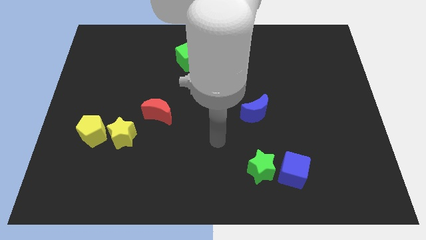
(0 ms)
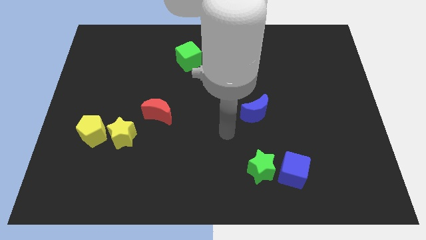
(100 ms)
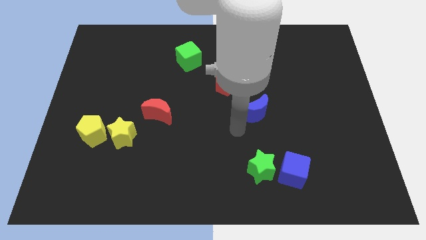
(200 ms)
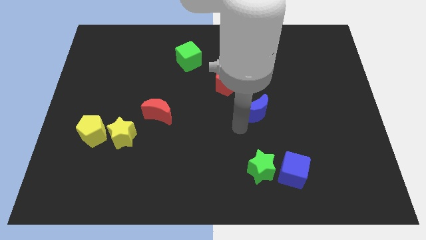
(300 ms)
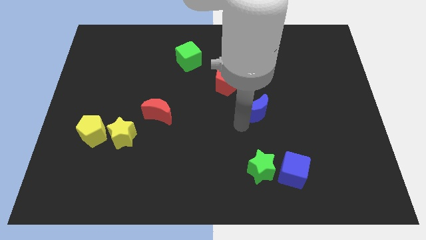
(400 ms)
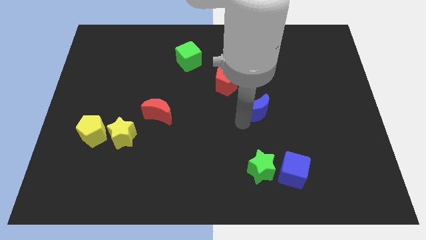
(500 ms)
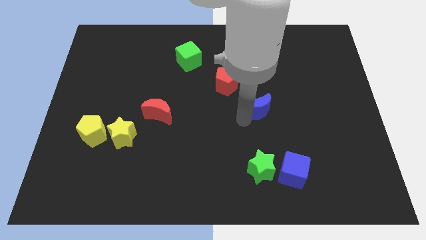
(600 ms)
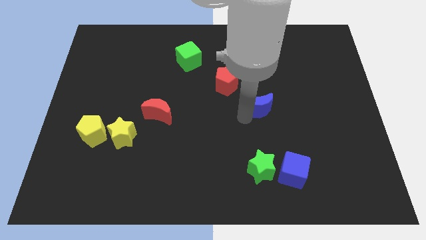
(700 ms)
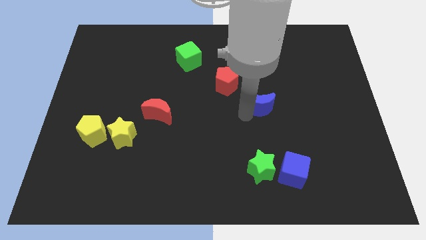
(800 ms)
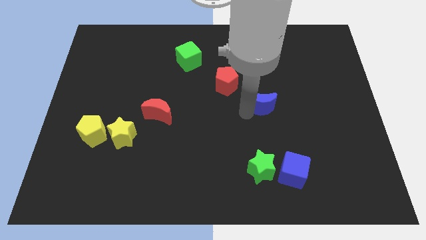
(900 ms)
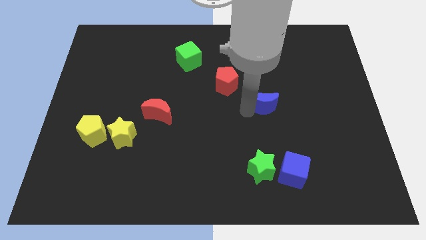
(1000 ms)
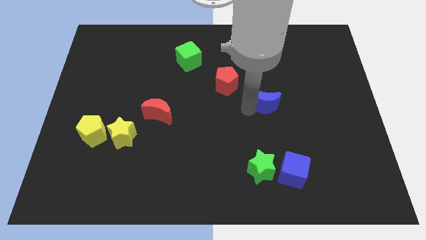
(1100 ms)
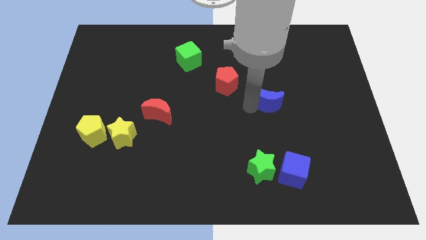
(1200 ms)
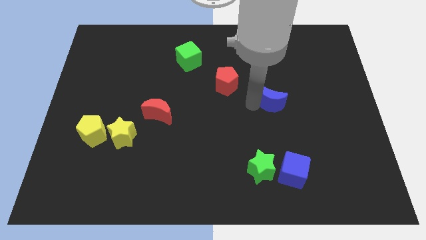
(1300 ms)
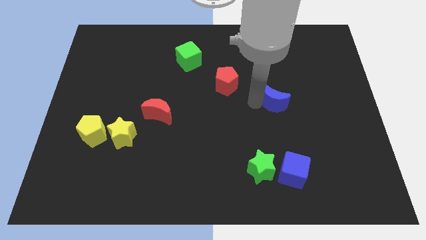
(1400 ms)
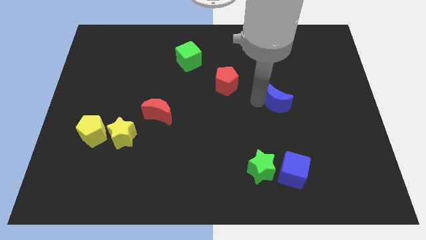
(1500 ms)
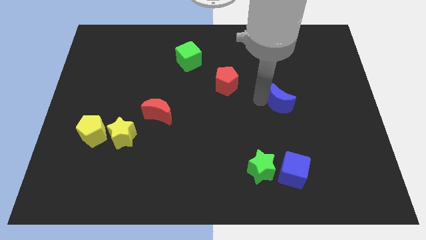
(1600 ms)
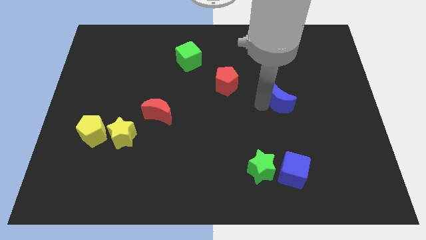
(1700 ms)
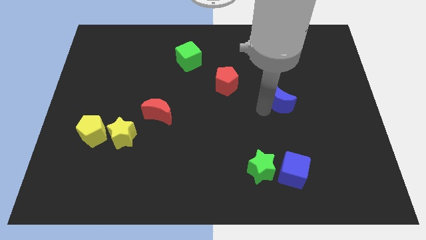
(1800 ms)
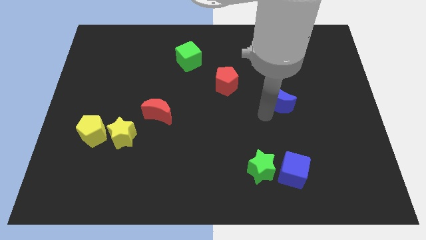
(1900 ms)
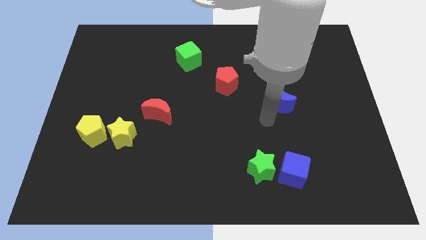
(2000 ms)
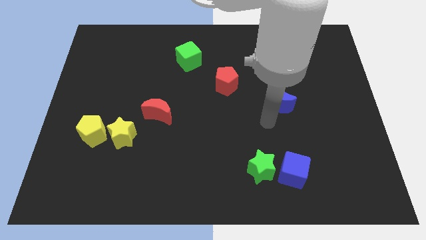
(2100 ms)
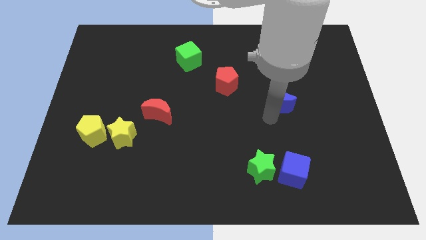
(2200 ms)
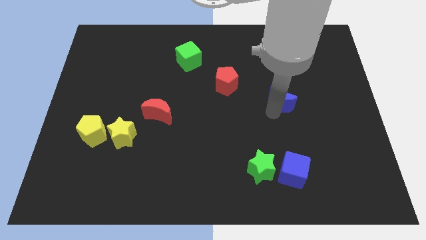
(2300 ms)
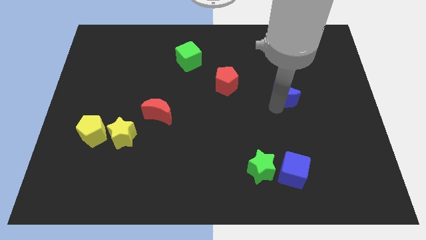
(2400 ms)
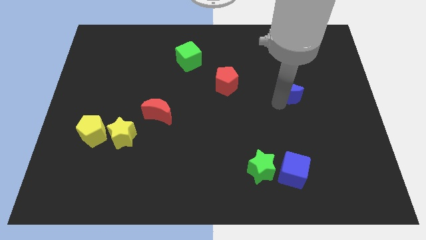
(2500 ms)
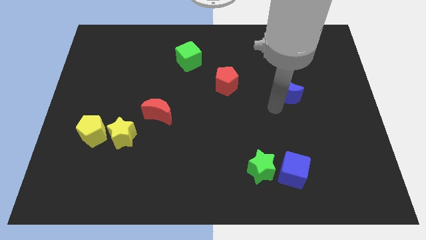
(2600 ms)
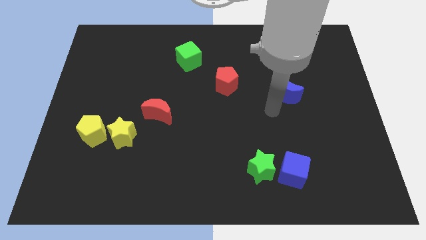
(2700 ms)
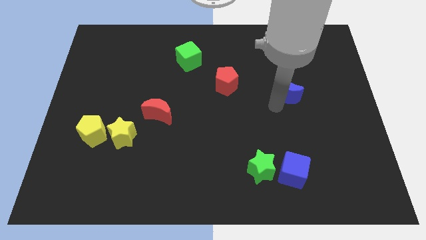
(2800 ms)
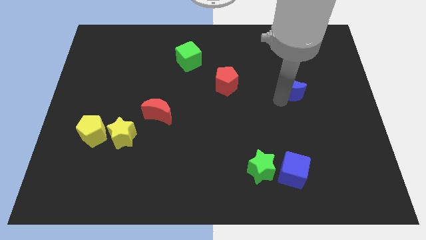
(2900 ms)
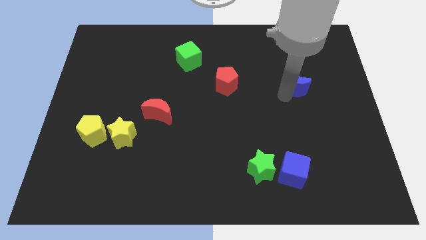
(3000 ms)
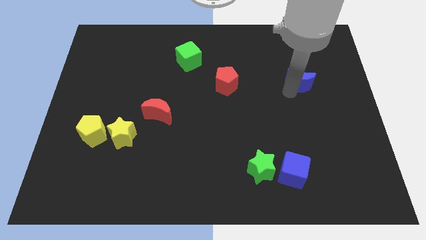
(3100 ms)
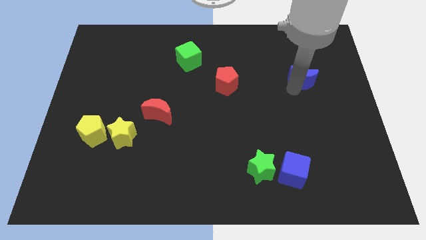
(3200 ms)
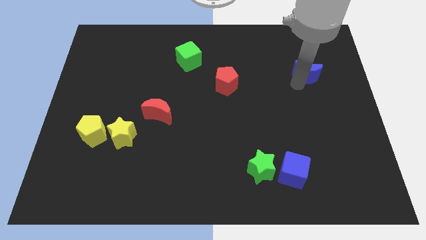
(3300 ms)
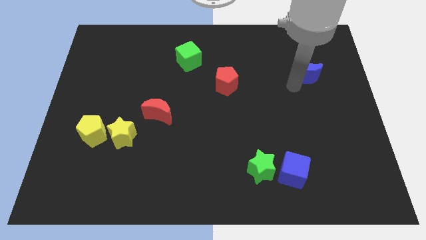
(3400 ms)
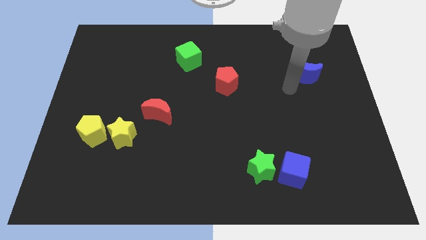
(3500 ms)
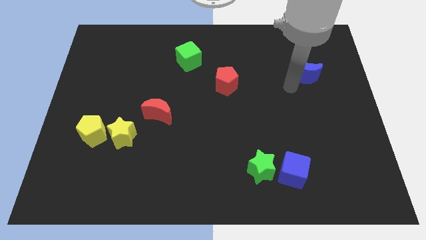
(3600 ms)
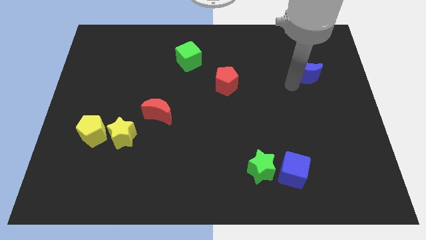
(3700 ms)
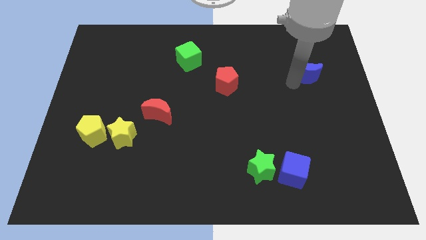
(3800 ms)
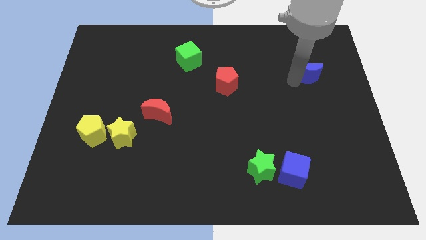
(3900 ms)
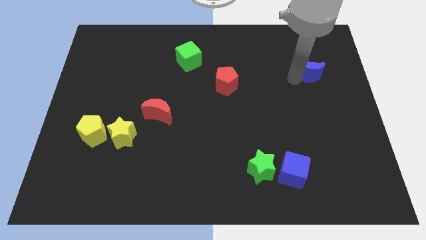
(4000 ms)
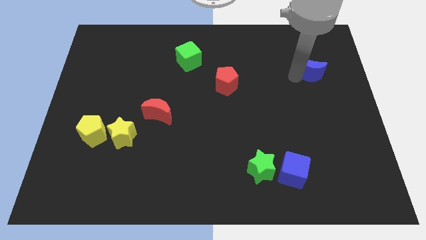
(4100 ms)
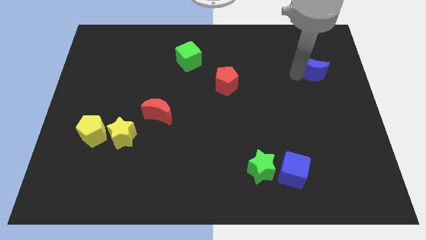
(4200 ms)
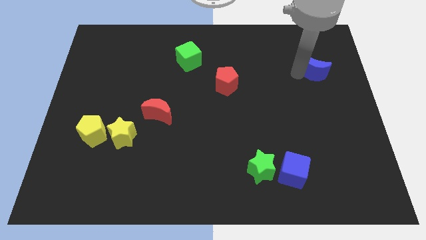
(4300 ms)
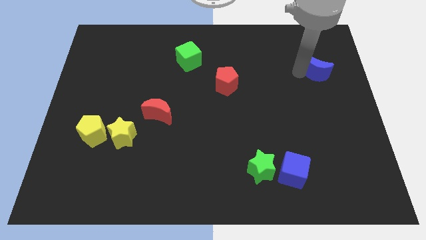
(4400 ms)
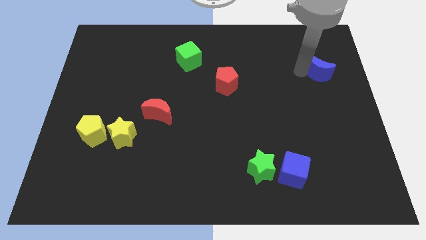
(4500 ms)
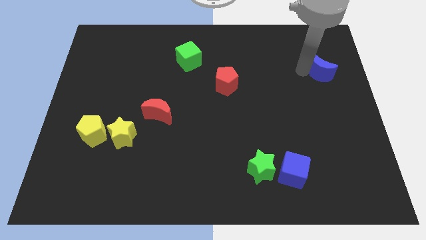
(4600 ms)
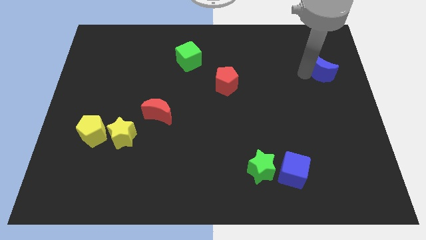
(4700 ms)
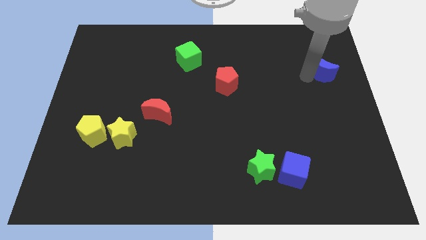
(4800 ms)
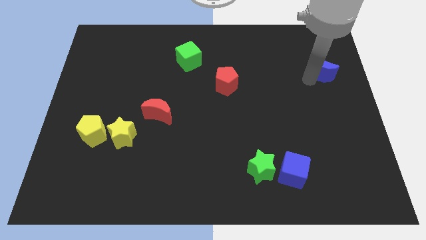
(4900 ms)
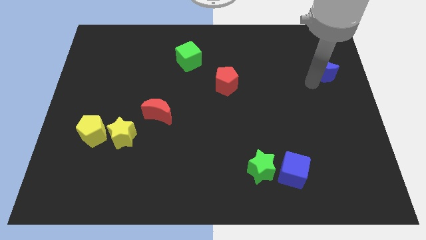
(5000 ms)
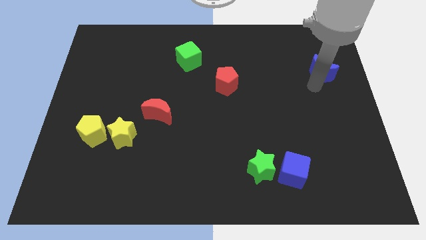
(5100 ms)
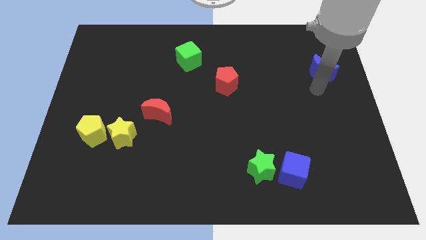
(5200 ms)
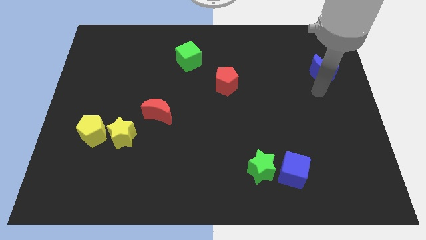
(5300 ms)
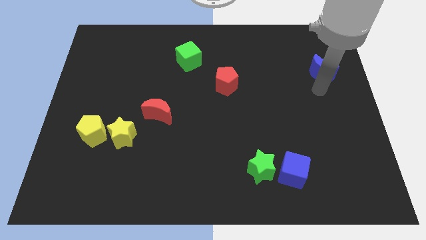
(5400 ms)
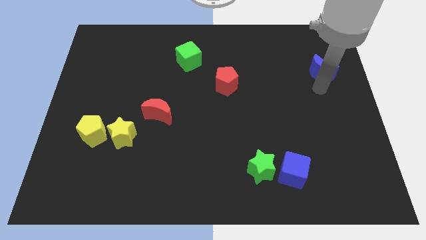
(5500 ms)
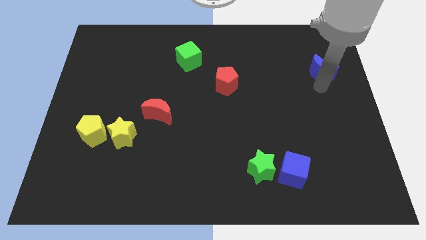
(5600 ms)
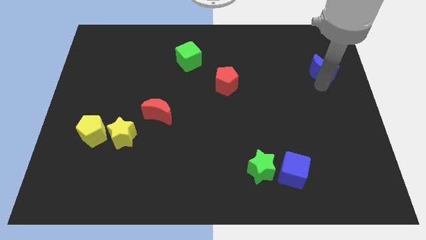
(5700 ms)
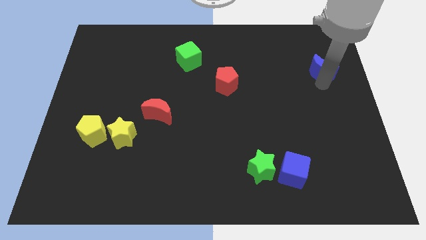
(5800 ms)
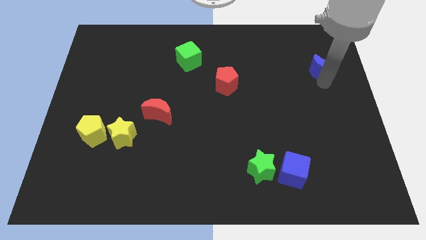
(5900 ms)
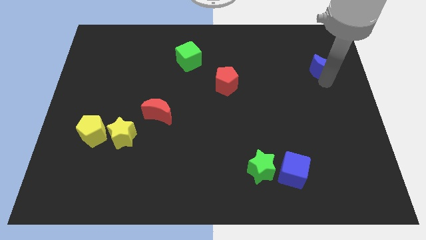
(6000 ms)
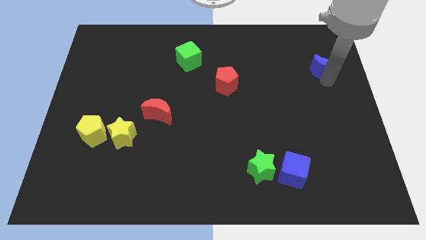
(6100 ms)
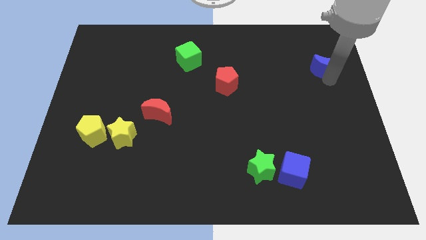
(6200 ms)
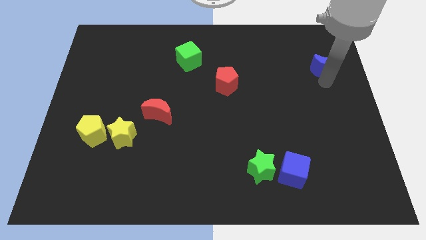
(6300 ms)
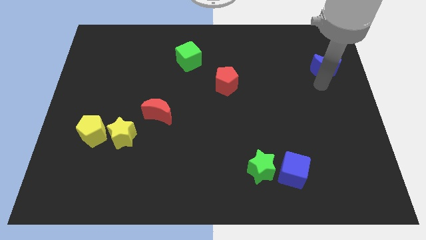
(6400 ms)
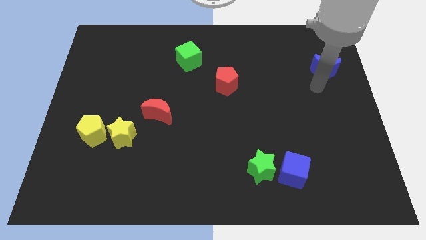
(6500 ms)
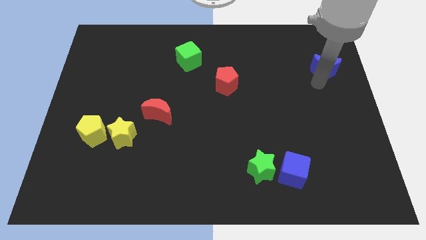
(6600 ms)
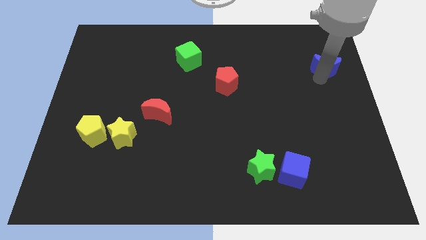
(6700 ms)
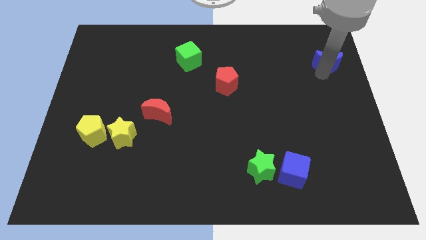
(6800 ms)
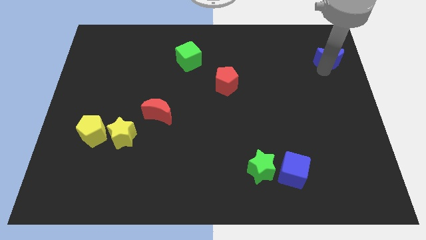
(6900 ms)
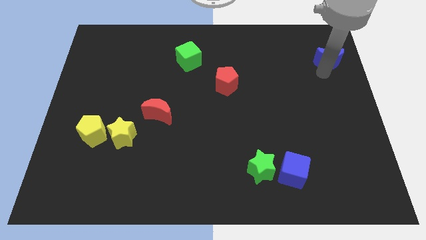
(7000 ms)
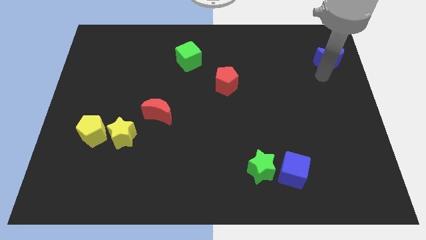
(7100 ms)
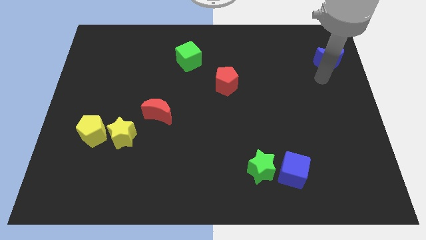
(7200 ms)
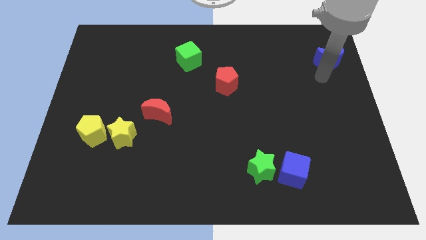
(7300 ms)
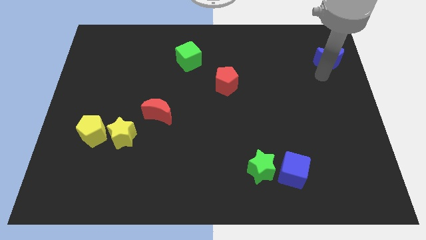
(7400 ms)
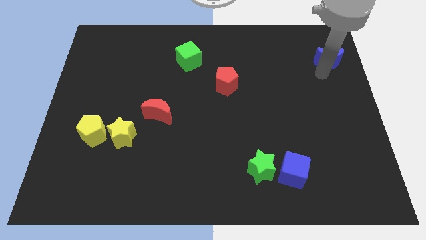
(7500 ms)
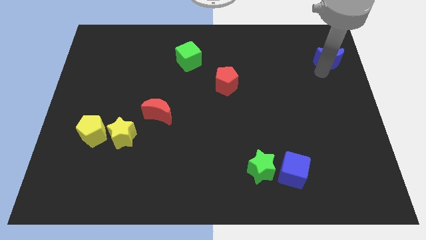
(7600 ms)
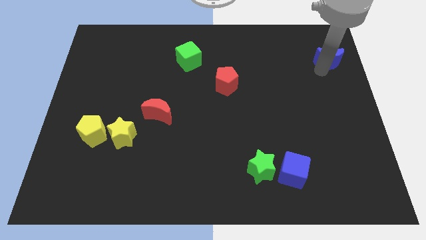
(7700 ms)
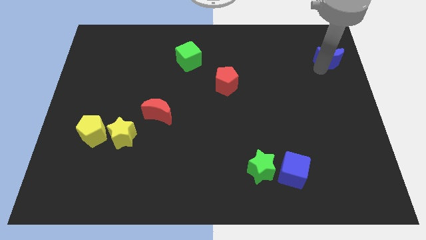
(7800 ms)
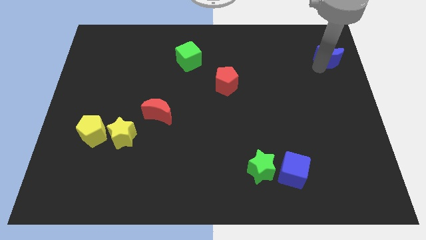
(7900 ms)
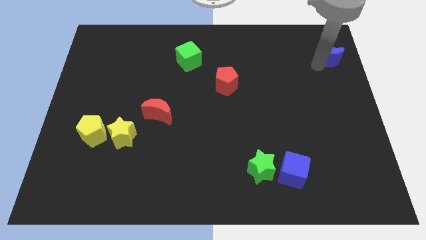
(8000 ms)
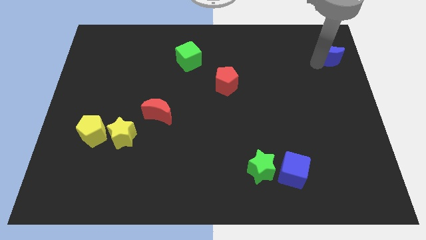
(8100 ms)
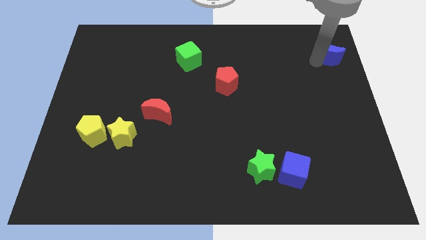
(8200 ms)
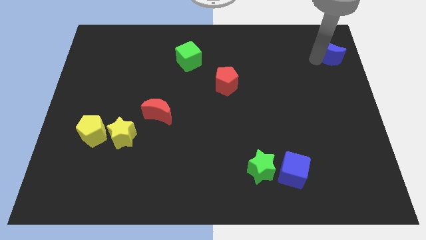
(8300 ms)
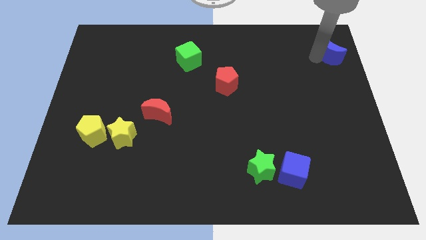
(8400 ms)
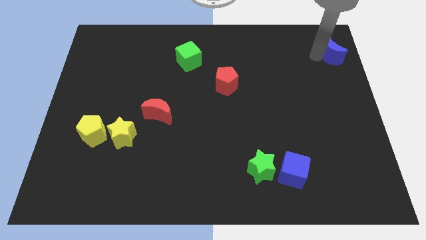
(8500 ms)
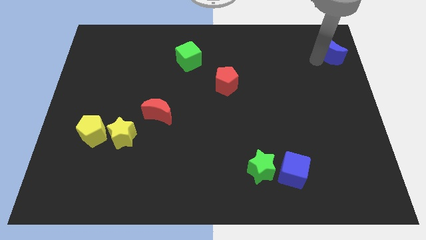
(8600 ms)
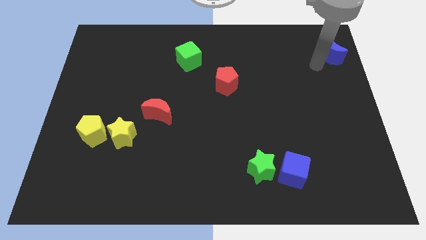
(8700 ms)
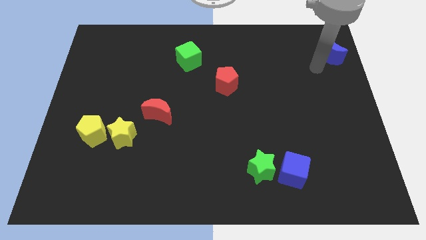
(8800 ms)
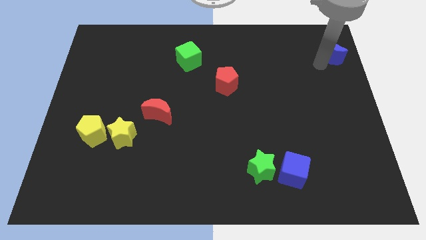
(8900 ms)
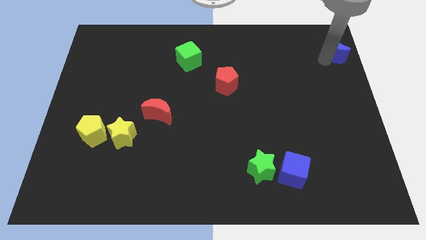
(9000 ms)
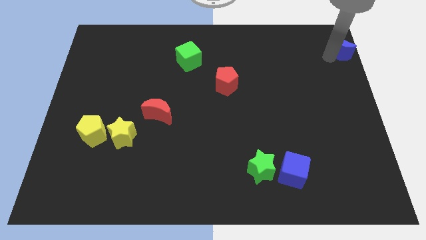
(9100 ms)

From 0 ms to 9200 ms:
slide the blue moon to the upper right corner
